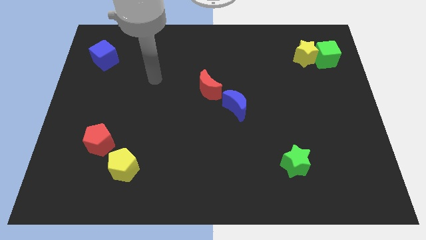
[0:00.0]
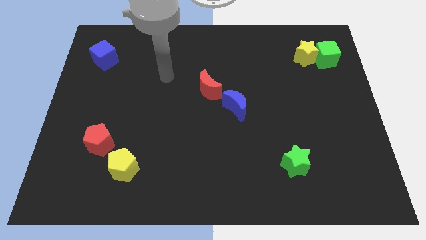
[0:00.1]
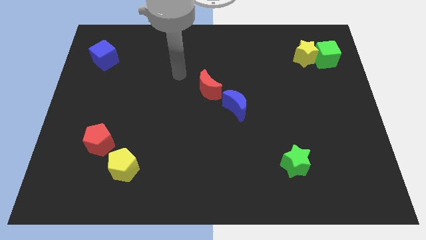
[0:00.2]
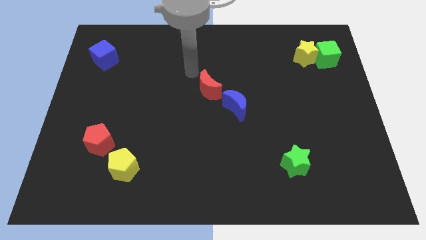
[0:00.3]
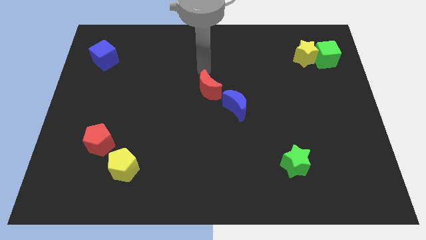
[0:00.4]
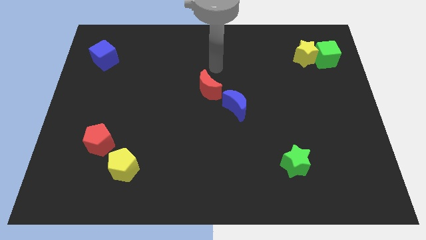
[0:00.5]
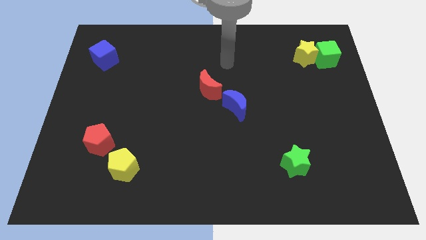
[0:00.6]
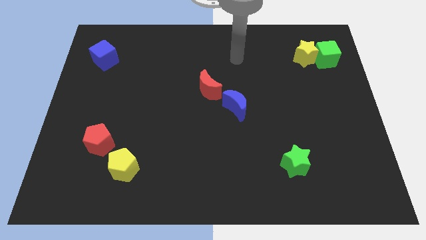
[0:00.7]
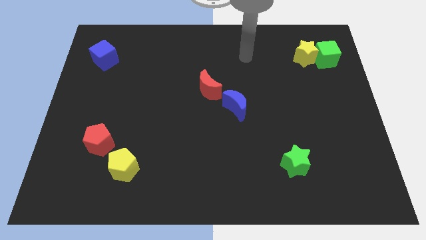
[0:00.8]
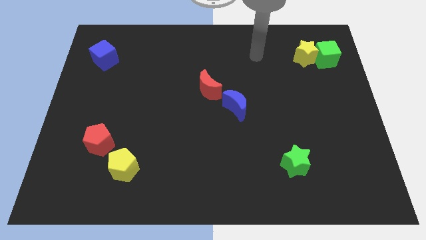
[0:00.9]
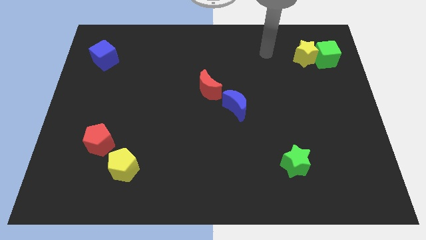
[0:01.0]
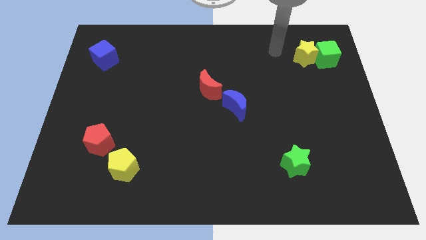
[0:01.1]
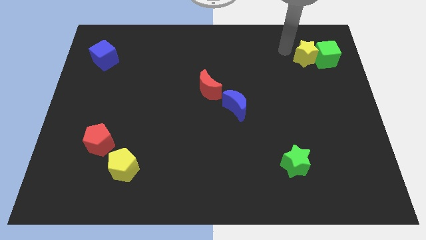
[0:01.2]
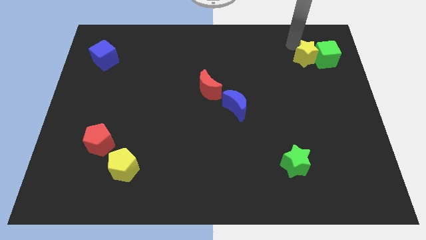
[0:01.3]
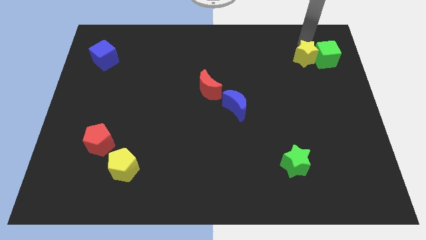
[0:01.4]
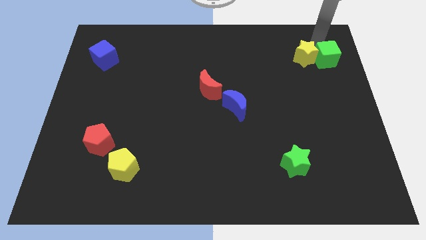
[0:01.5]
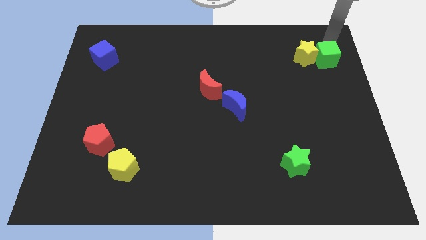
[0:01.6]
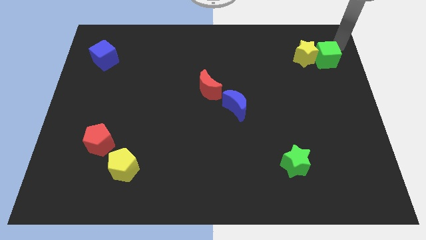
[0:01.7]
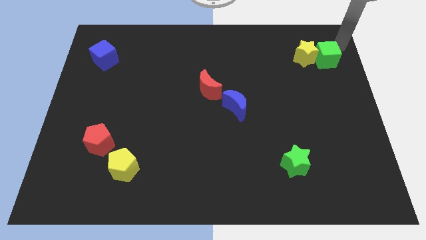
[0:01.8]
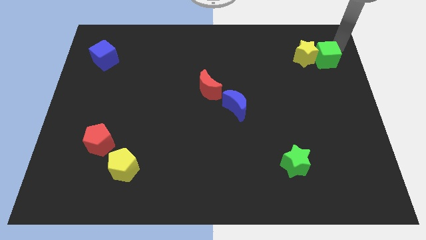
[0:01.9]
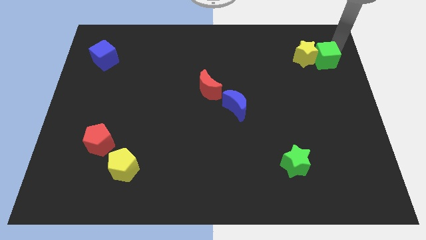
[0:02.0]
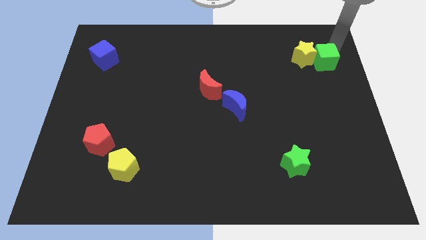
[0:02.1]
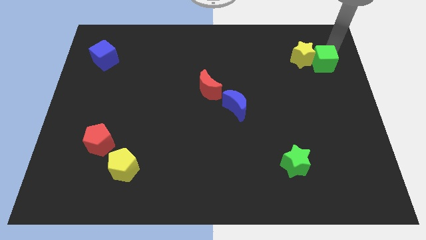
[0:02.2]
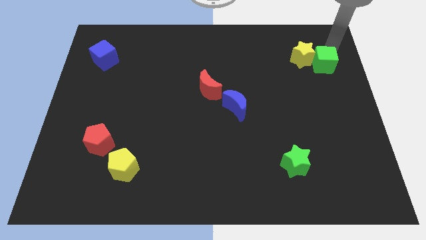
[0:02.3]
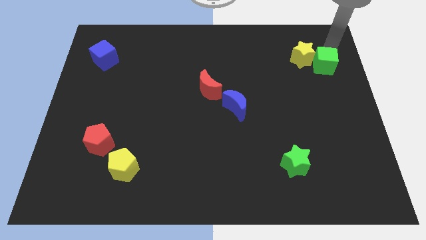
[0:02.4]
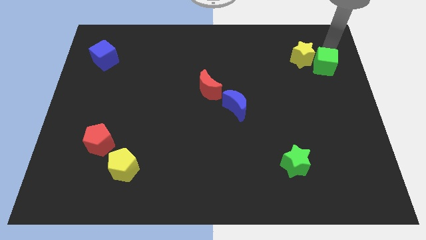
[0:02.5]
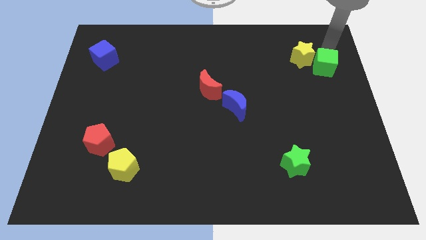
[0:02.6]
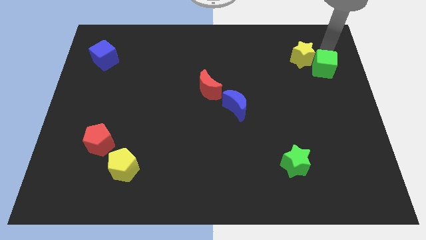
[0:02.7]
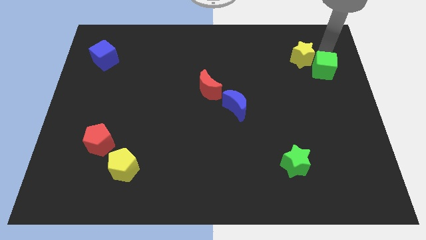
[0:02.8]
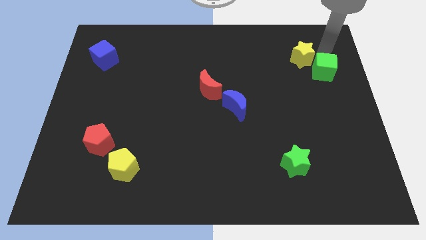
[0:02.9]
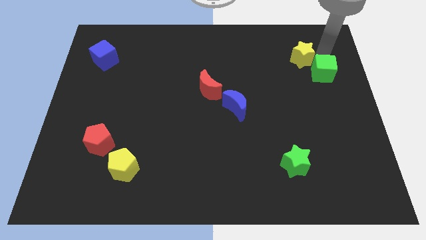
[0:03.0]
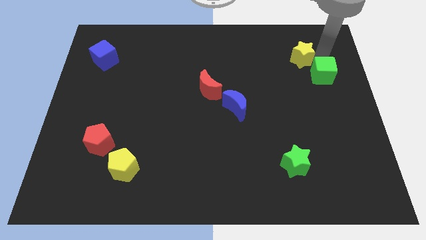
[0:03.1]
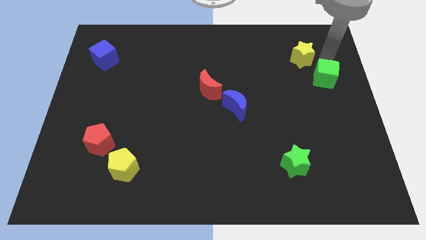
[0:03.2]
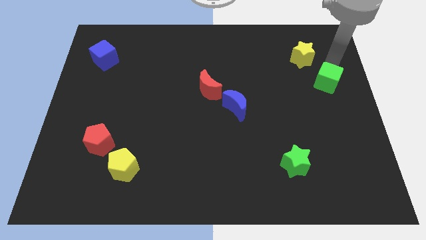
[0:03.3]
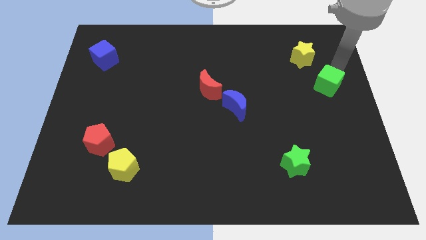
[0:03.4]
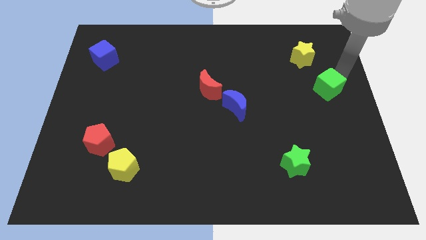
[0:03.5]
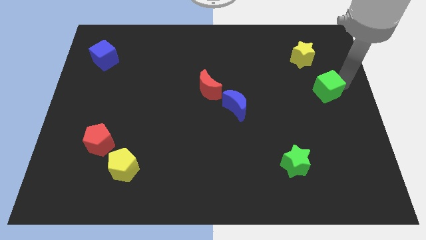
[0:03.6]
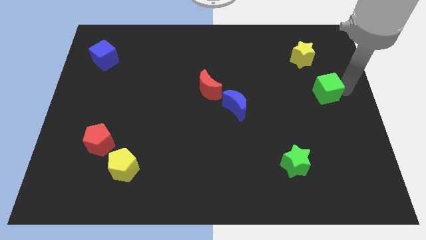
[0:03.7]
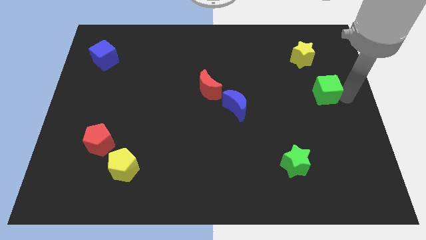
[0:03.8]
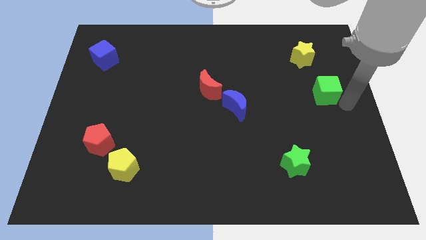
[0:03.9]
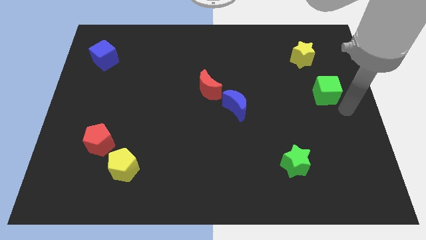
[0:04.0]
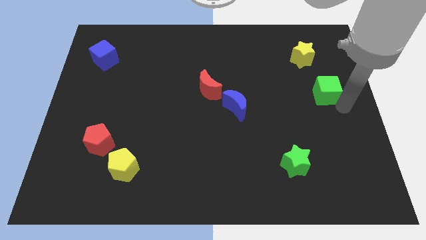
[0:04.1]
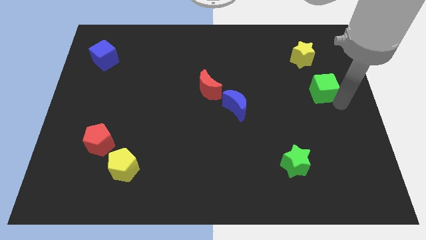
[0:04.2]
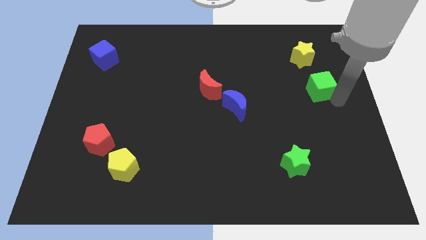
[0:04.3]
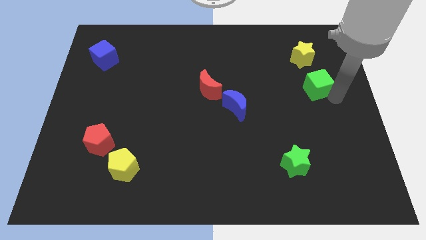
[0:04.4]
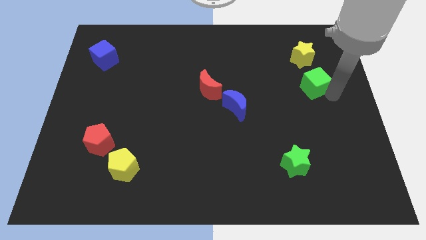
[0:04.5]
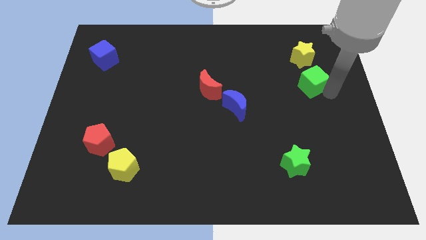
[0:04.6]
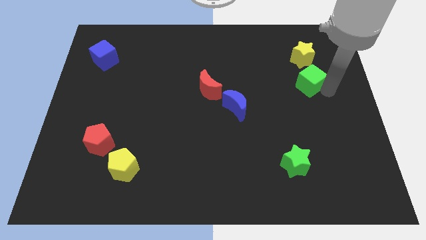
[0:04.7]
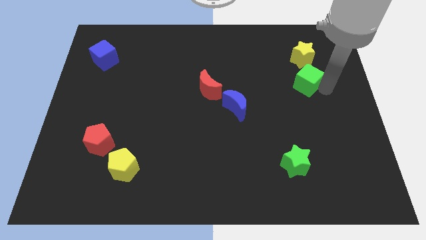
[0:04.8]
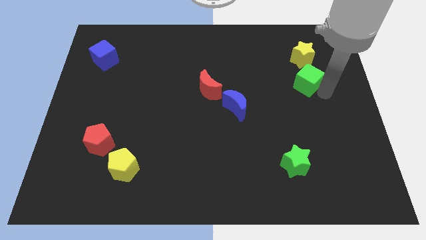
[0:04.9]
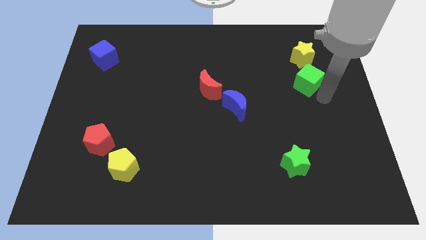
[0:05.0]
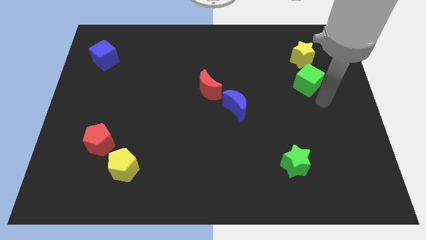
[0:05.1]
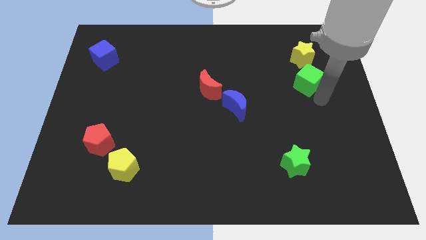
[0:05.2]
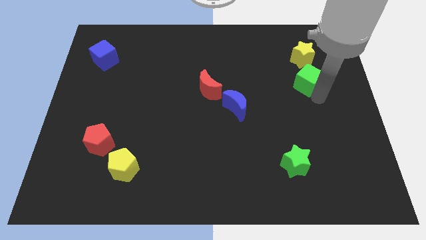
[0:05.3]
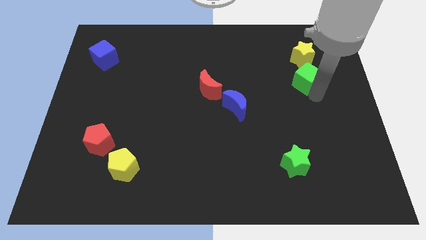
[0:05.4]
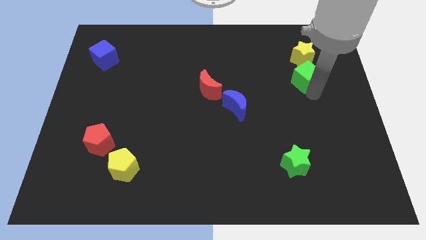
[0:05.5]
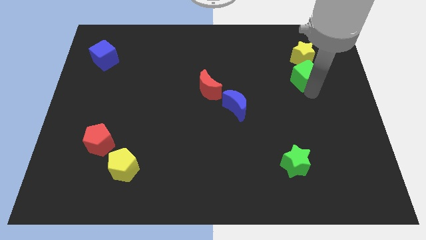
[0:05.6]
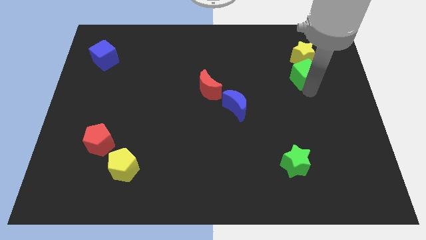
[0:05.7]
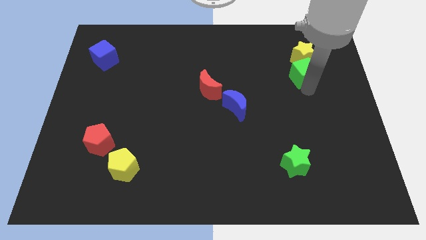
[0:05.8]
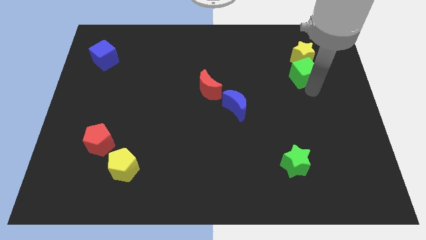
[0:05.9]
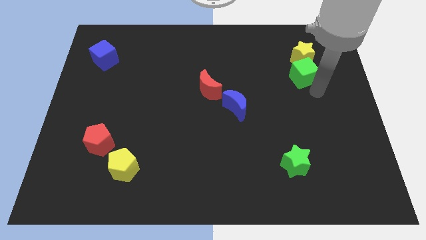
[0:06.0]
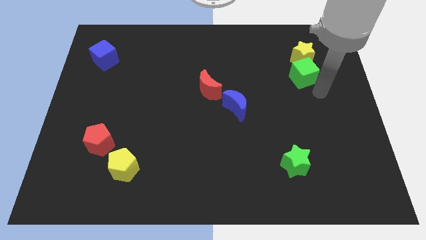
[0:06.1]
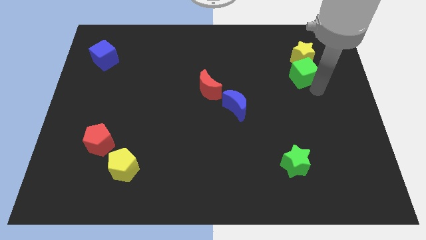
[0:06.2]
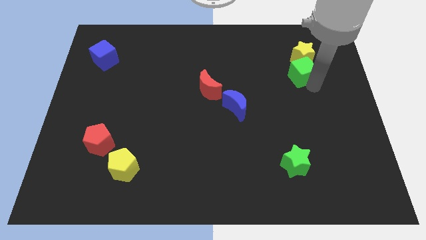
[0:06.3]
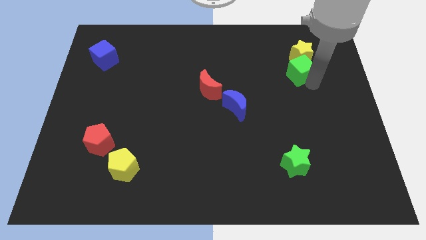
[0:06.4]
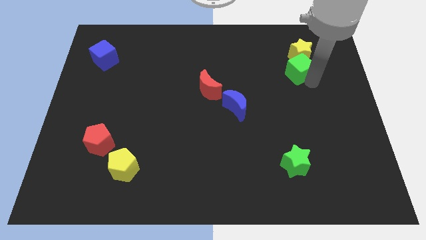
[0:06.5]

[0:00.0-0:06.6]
slide the green cube a bit to the left

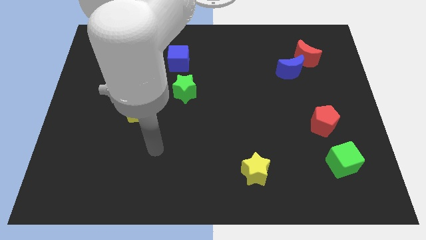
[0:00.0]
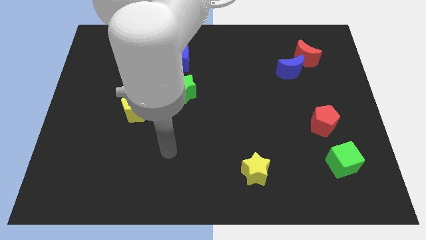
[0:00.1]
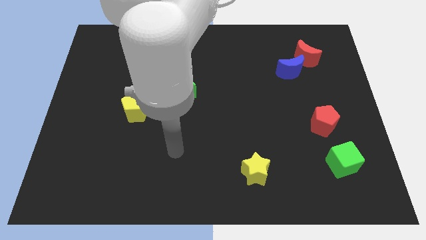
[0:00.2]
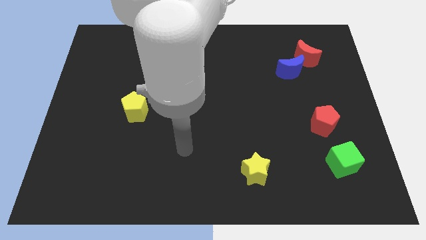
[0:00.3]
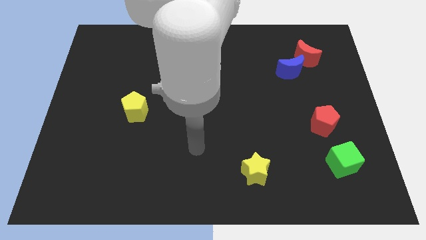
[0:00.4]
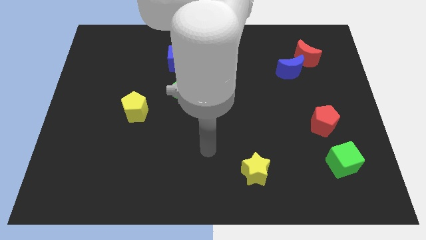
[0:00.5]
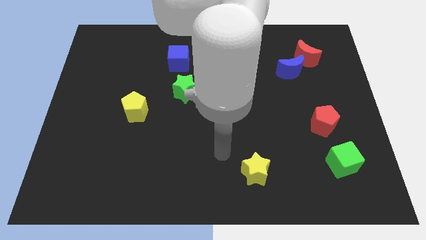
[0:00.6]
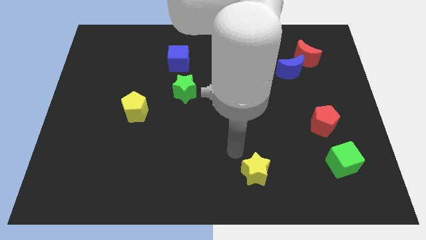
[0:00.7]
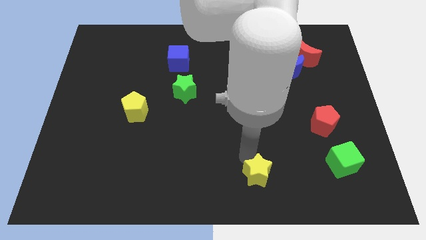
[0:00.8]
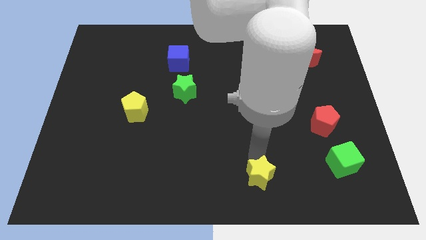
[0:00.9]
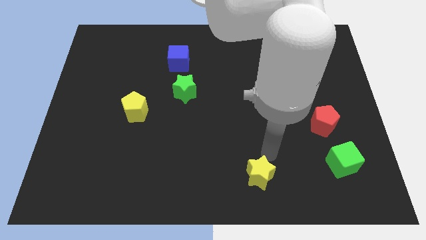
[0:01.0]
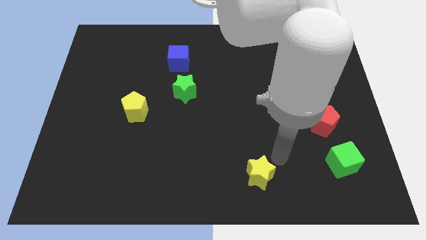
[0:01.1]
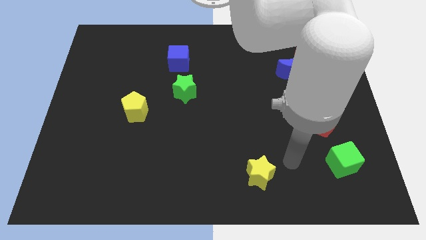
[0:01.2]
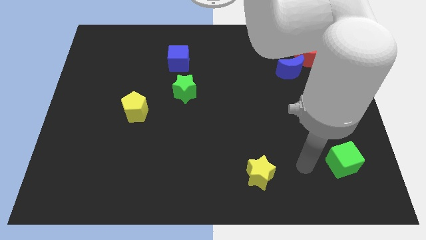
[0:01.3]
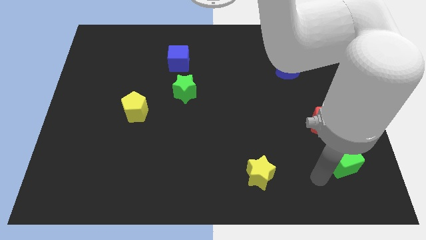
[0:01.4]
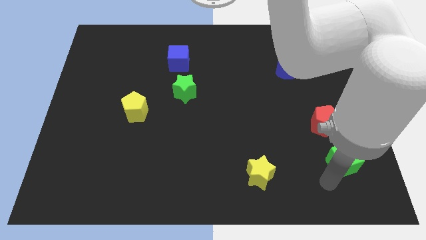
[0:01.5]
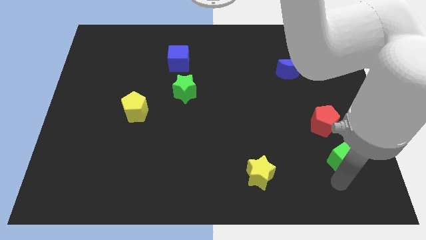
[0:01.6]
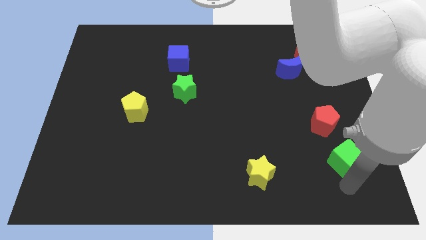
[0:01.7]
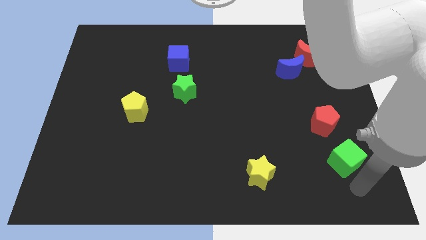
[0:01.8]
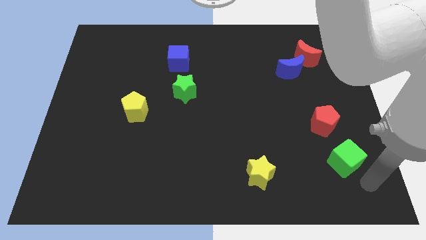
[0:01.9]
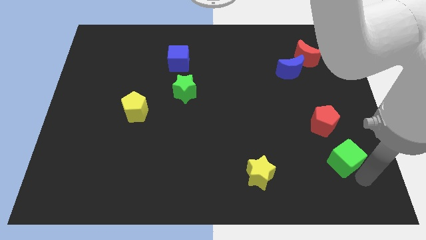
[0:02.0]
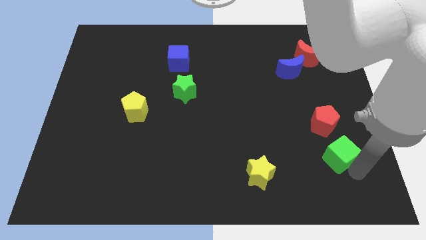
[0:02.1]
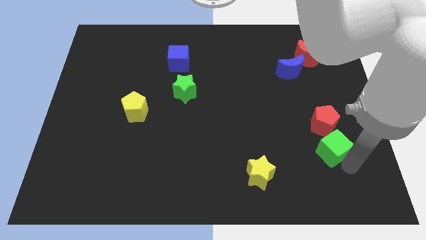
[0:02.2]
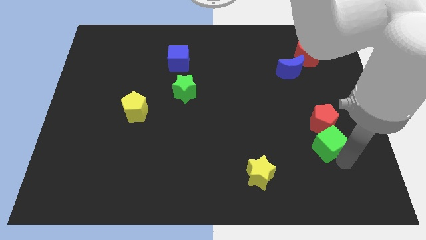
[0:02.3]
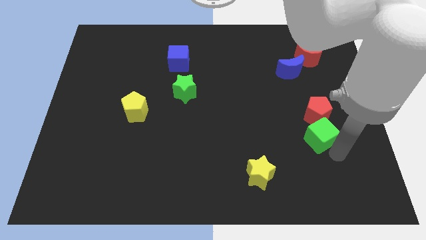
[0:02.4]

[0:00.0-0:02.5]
slide the green cube somewhat upwards and then left
